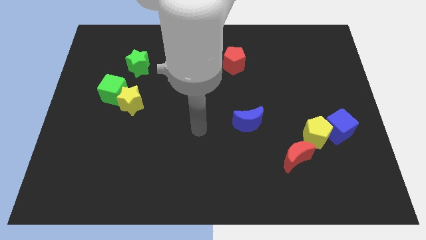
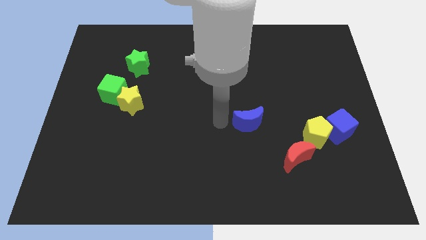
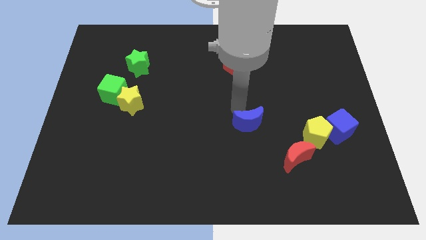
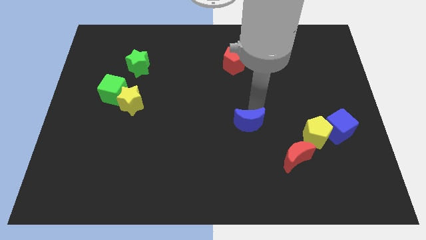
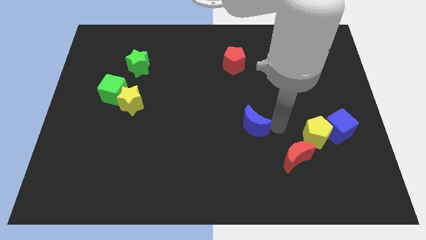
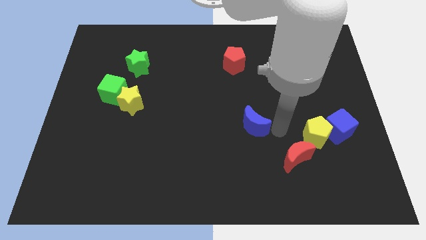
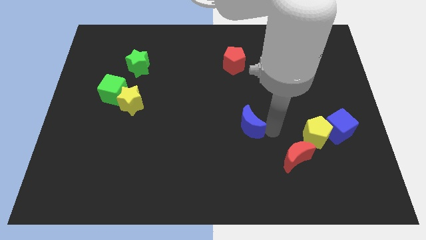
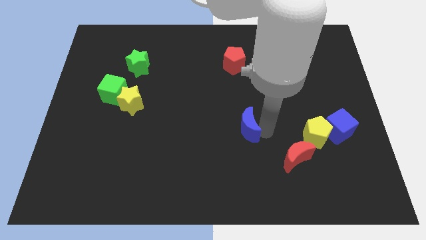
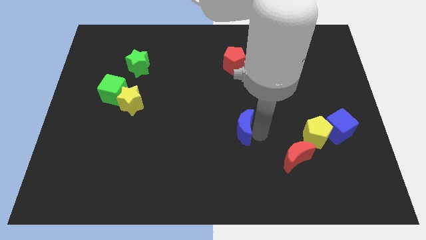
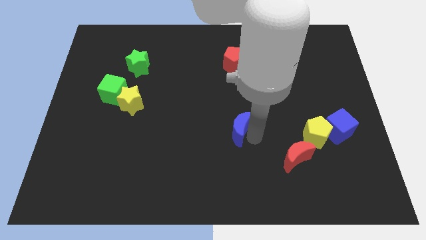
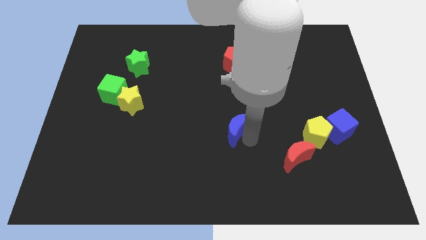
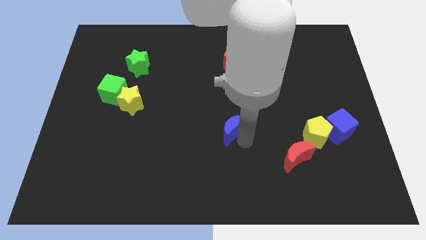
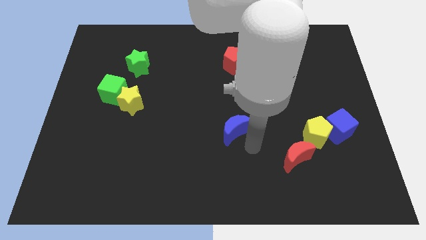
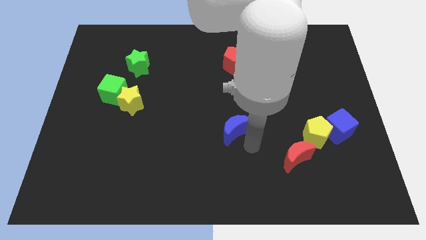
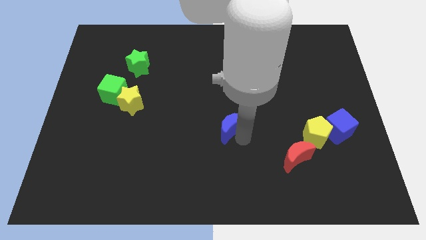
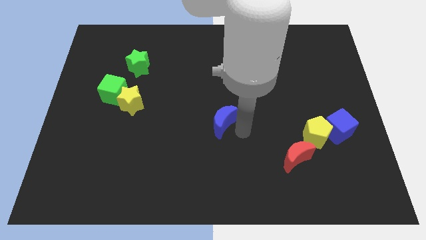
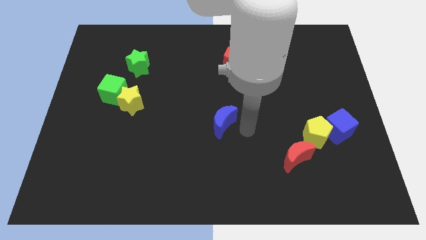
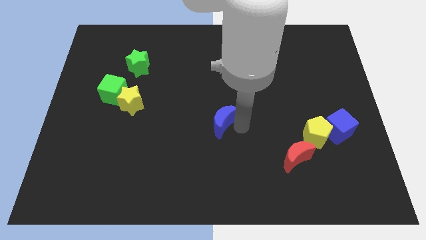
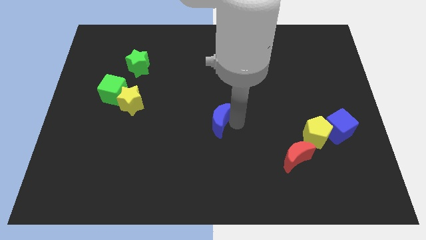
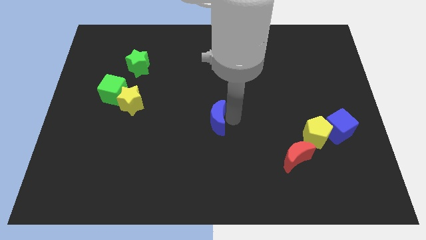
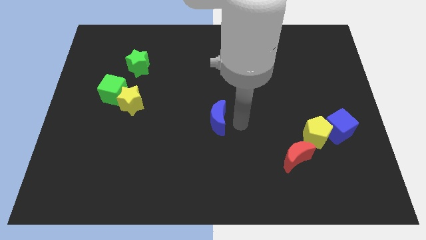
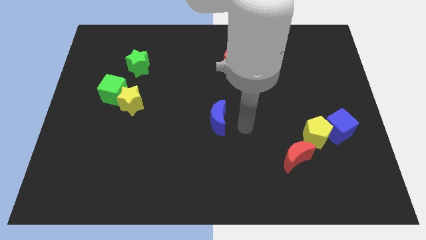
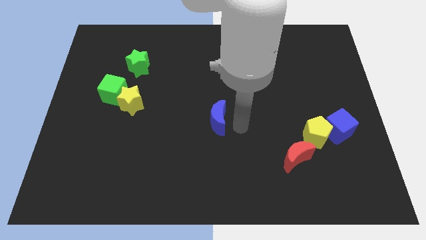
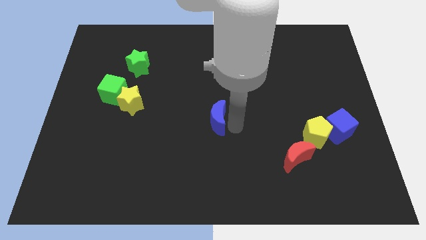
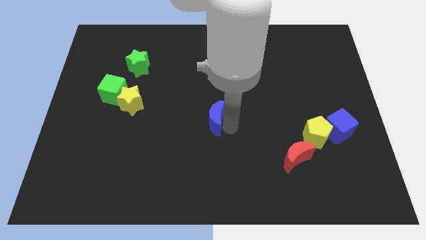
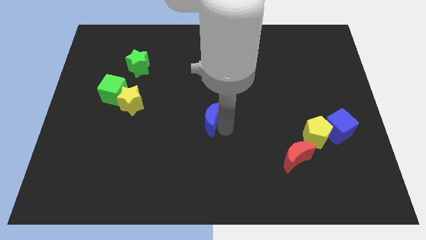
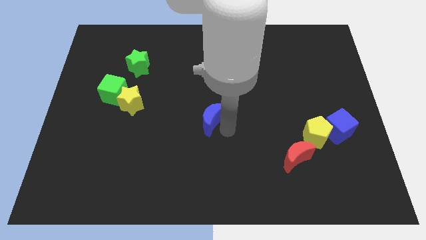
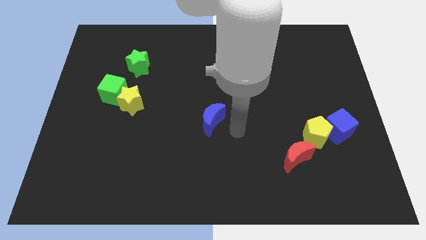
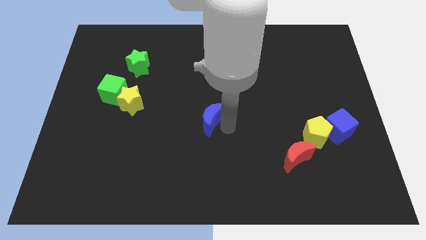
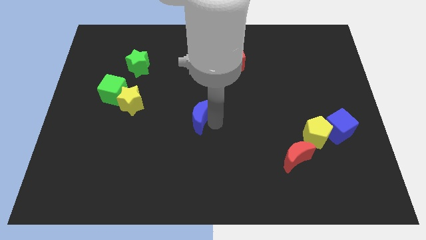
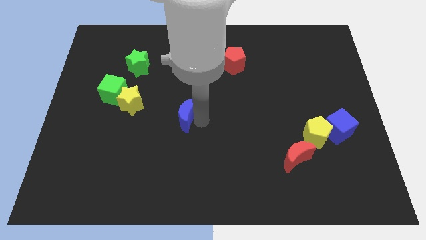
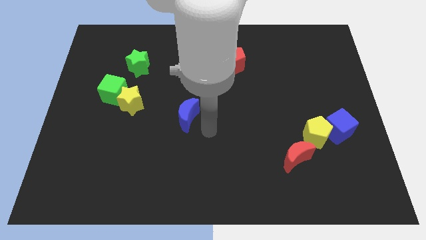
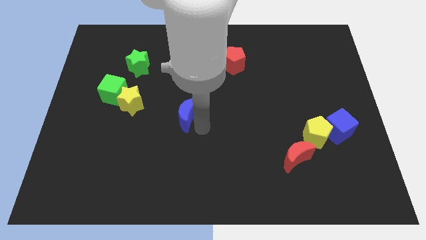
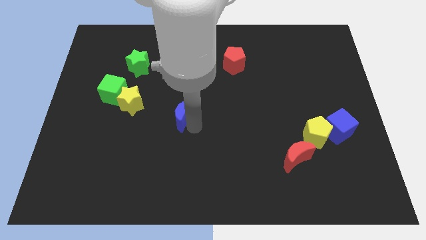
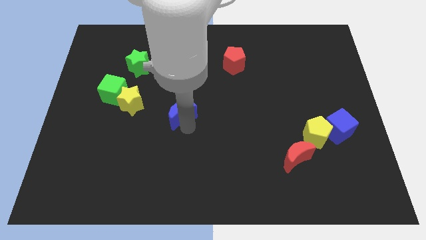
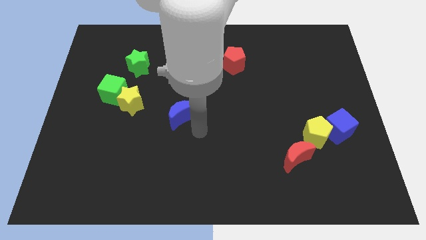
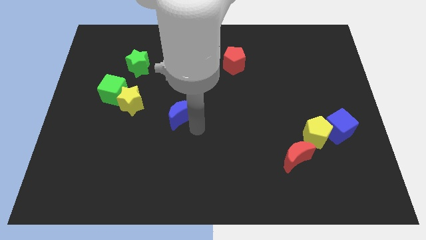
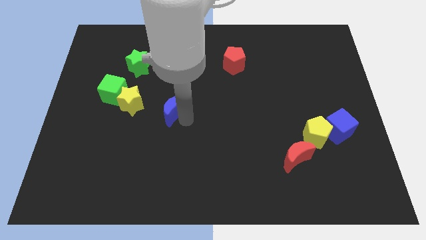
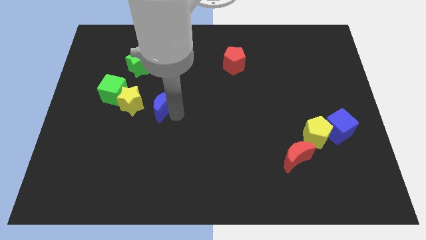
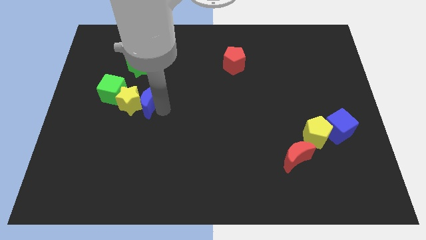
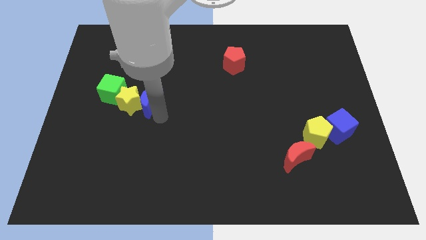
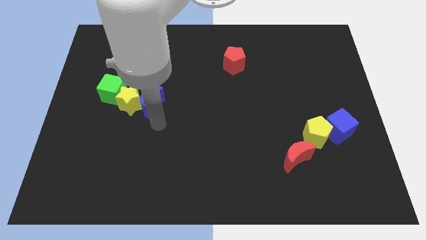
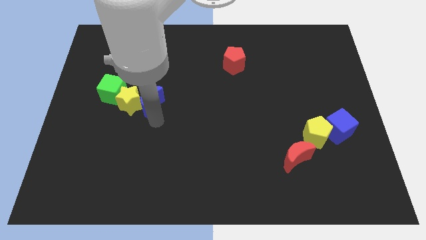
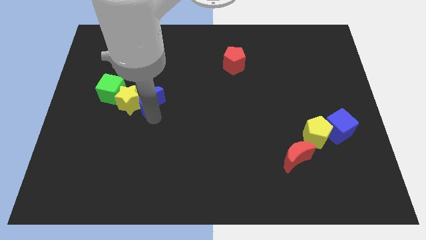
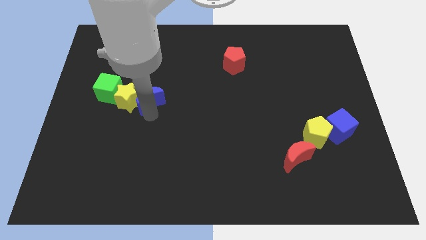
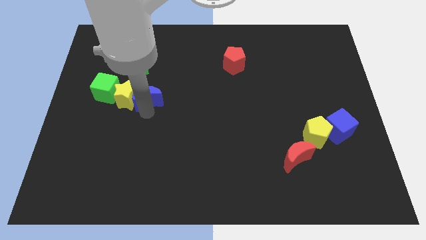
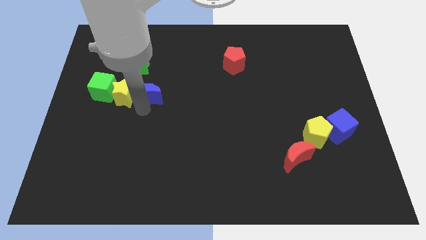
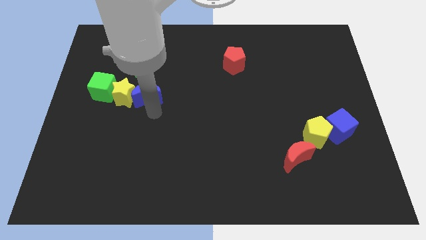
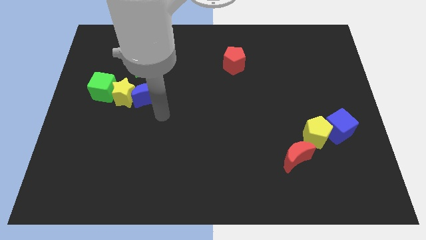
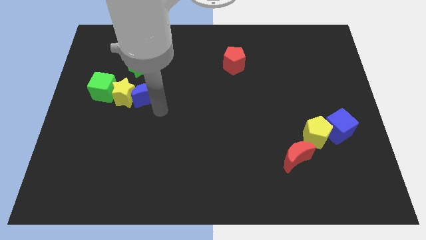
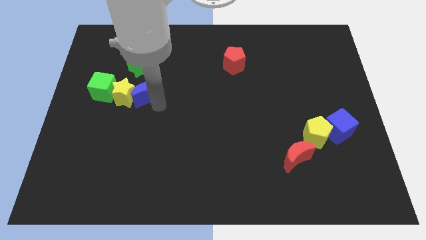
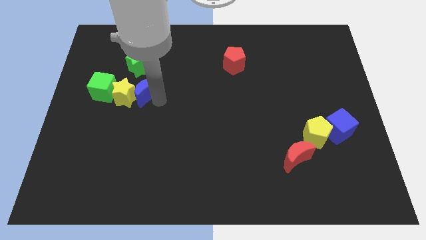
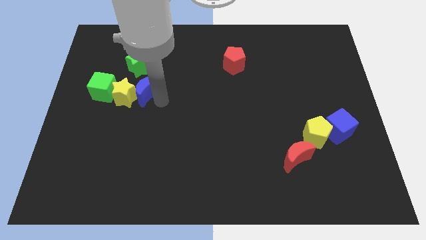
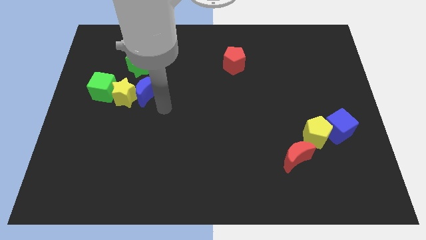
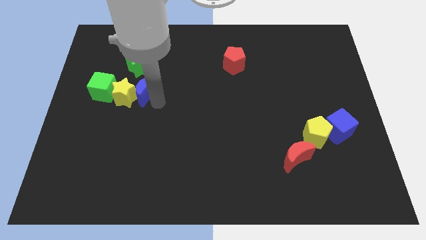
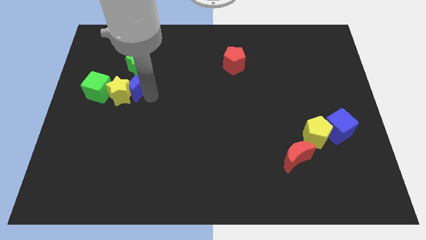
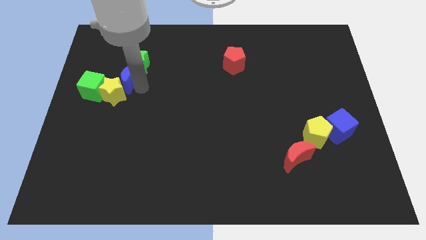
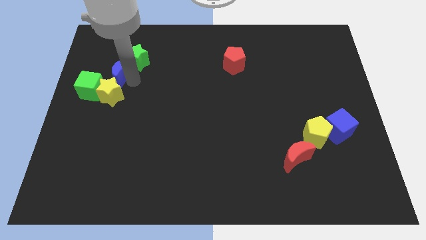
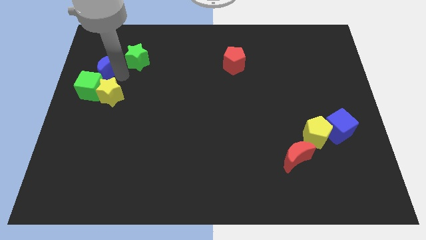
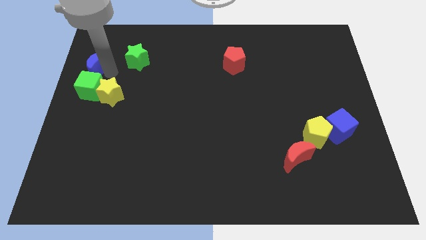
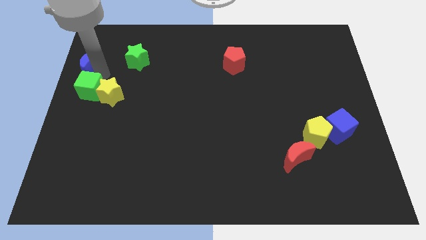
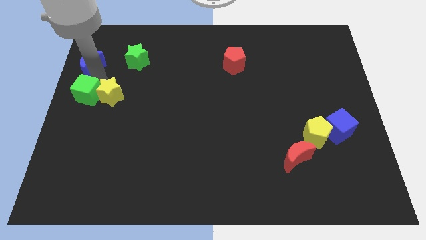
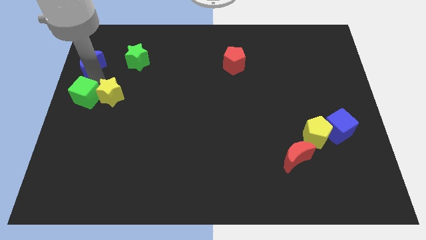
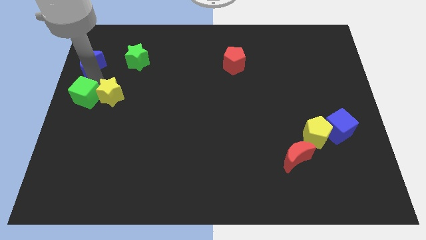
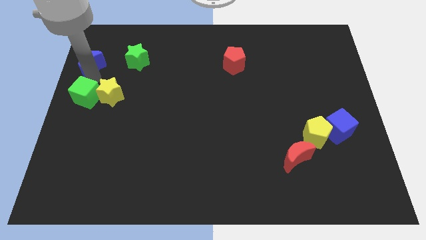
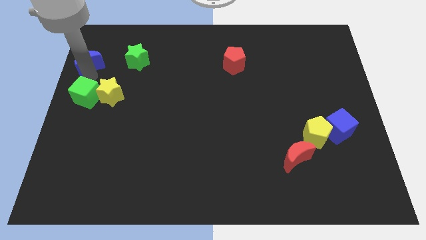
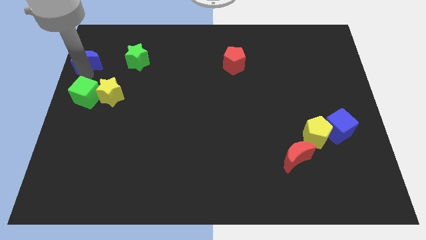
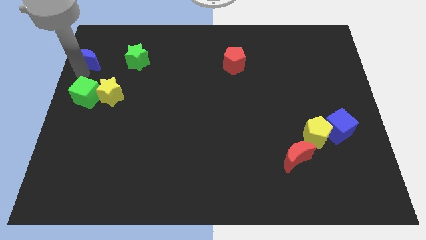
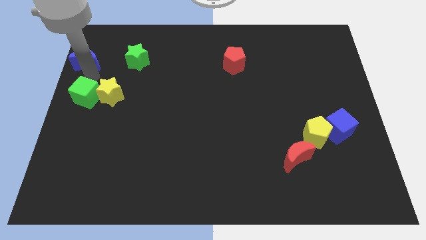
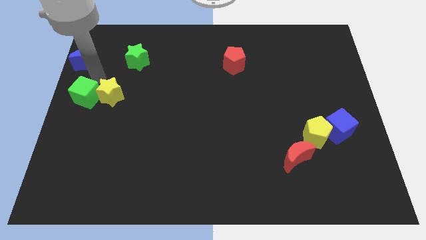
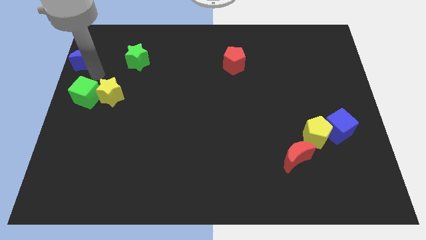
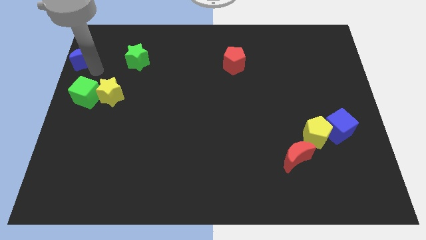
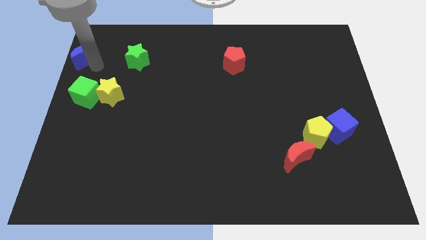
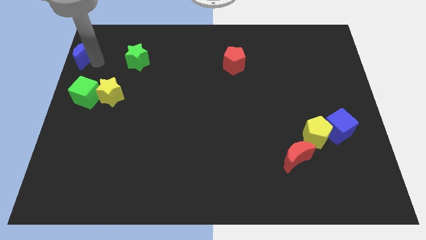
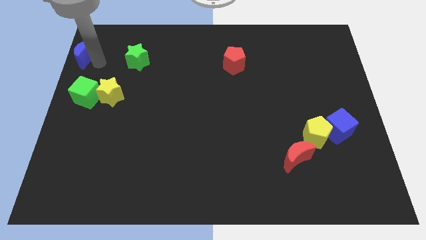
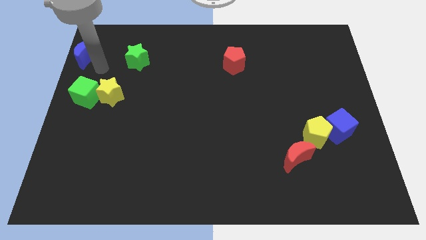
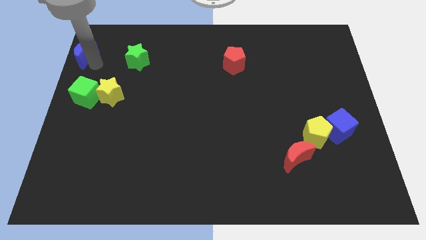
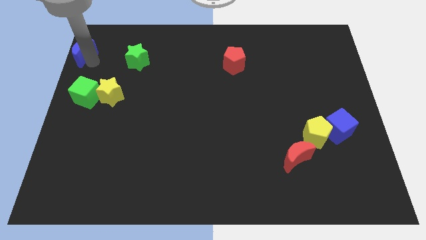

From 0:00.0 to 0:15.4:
put the blue moon to the upper left corner
